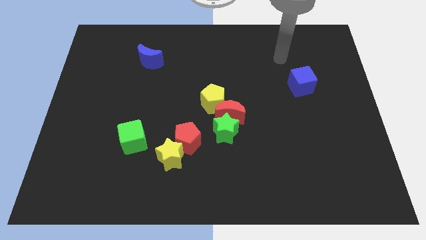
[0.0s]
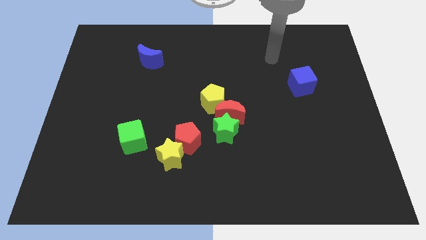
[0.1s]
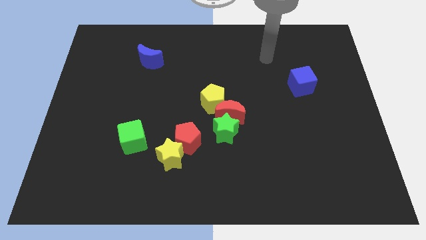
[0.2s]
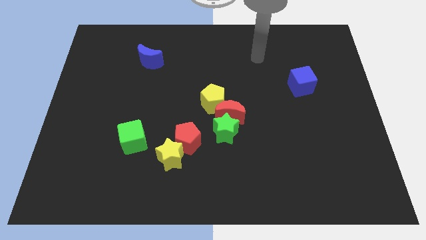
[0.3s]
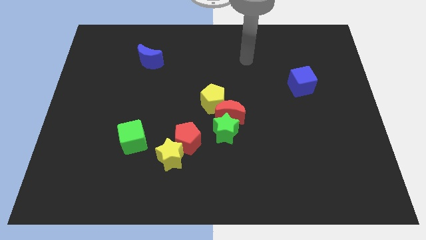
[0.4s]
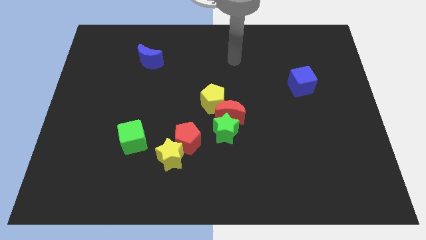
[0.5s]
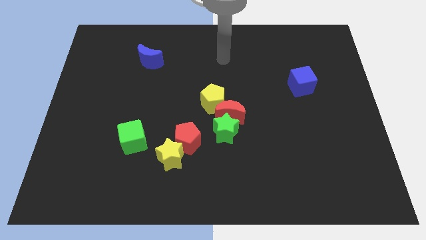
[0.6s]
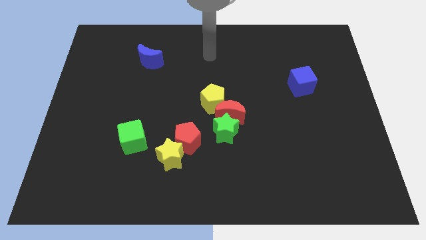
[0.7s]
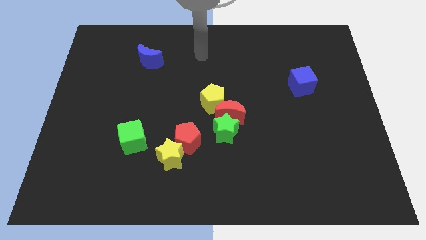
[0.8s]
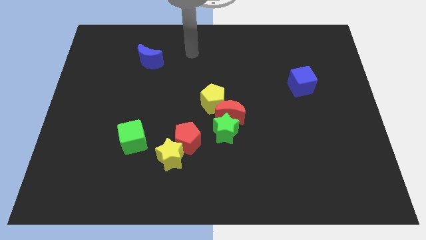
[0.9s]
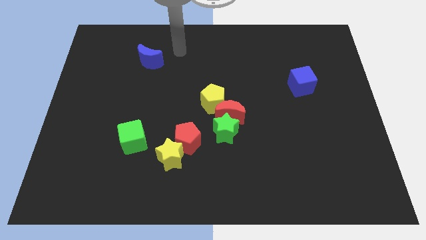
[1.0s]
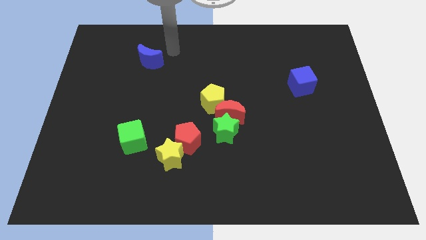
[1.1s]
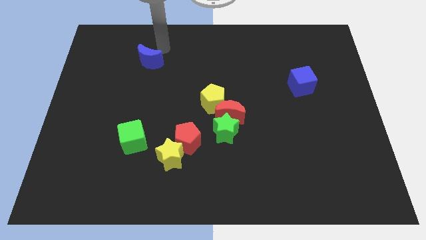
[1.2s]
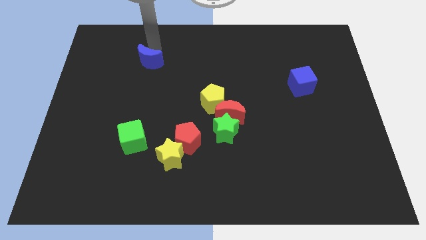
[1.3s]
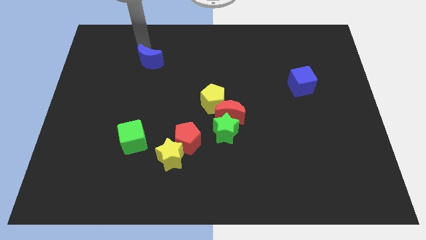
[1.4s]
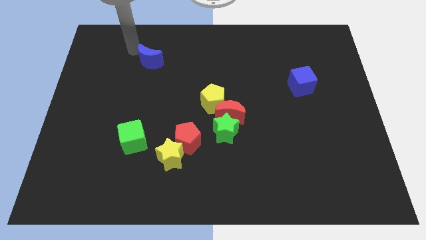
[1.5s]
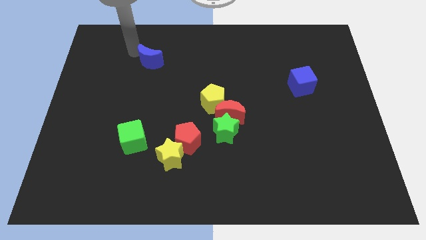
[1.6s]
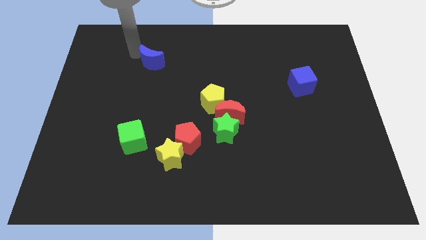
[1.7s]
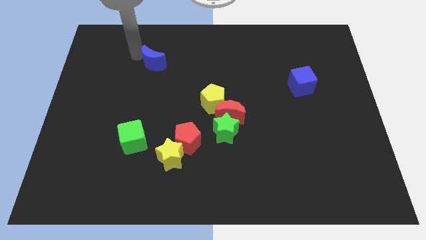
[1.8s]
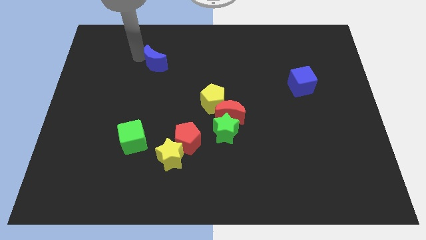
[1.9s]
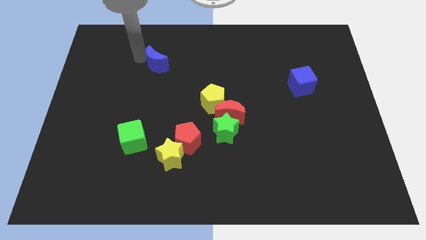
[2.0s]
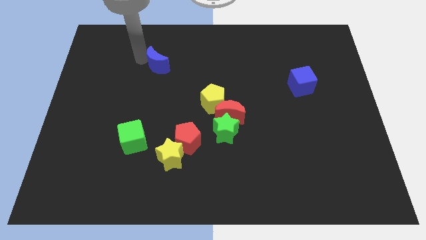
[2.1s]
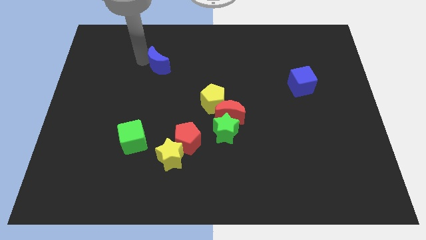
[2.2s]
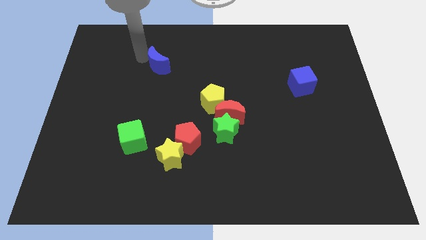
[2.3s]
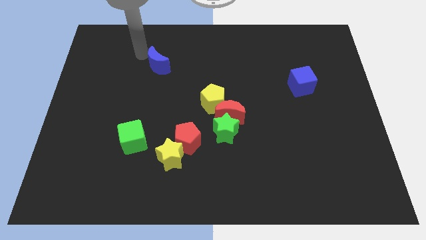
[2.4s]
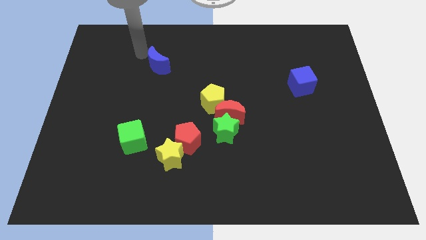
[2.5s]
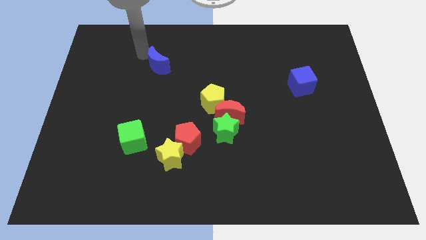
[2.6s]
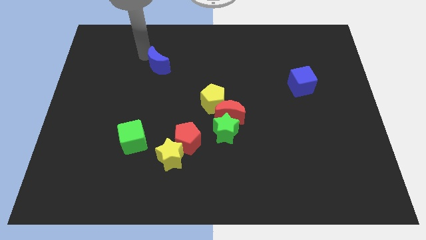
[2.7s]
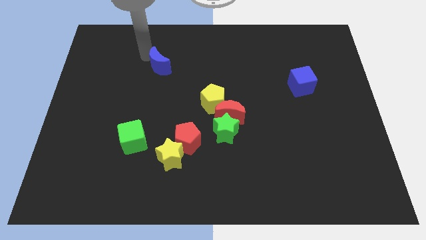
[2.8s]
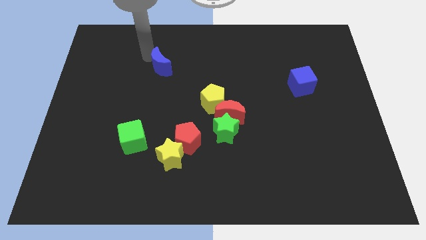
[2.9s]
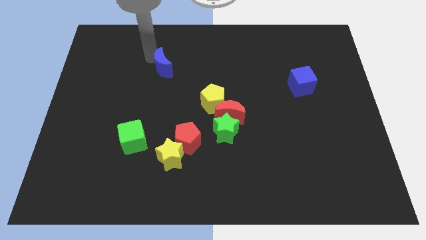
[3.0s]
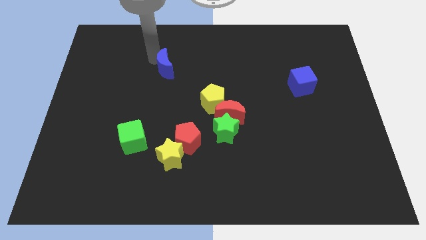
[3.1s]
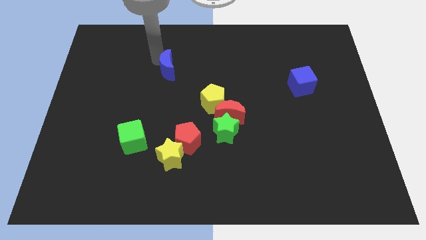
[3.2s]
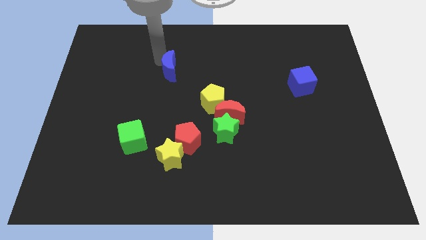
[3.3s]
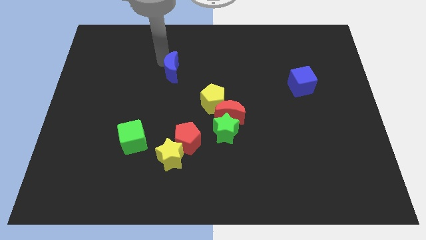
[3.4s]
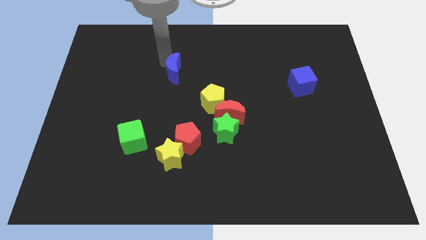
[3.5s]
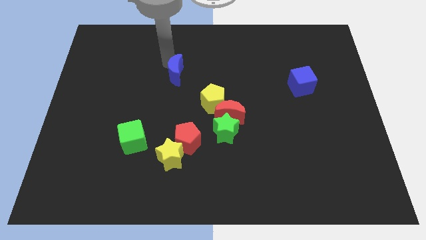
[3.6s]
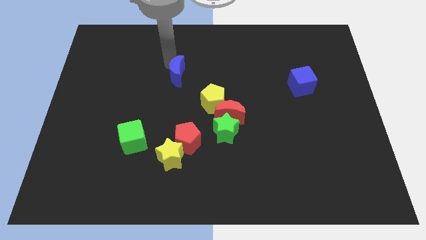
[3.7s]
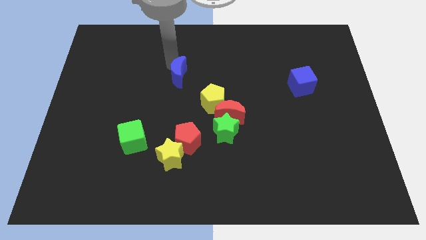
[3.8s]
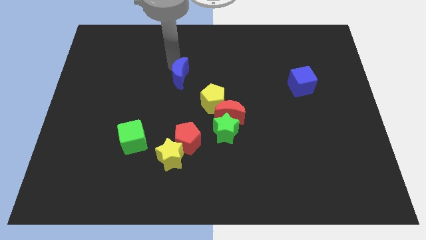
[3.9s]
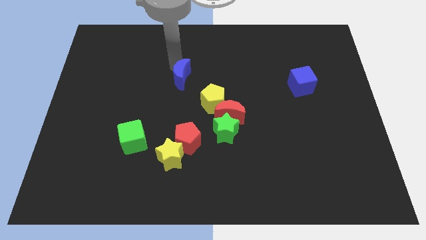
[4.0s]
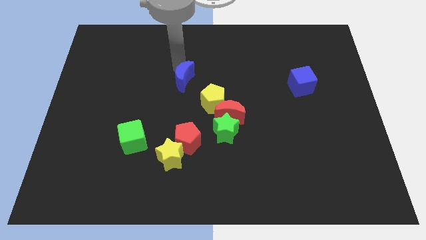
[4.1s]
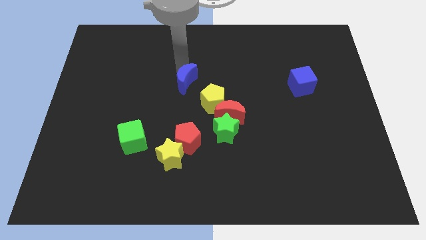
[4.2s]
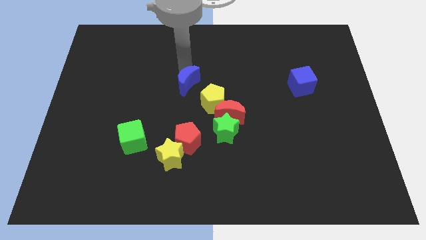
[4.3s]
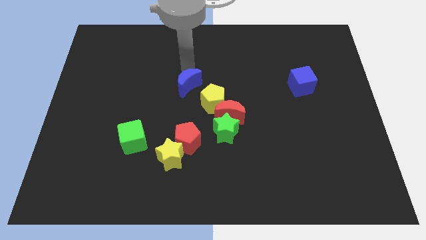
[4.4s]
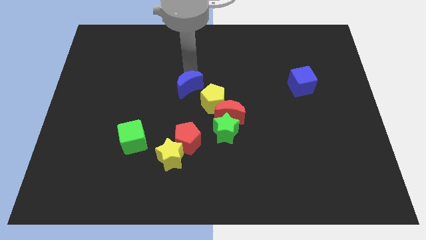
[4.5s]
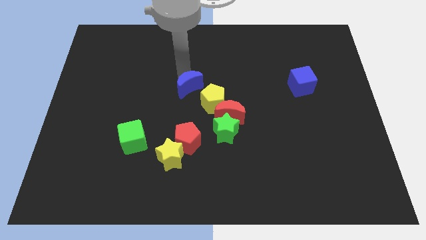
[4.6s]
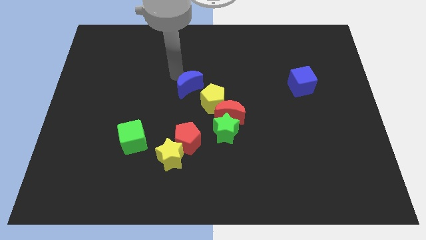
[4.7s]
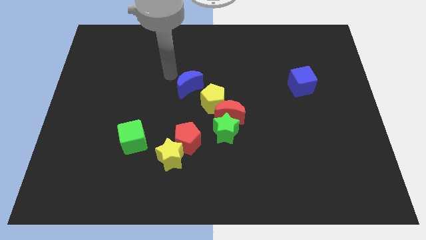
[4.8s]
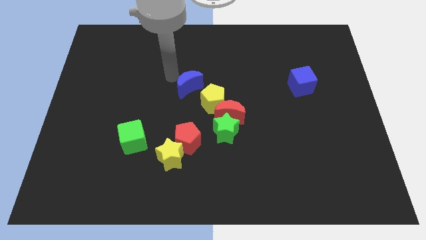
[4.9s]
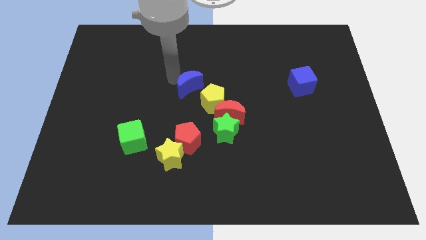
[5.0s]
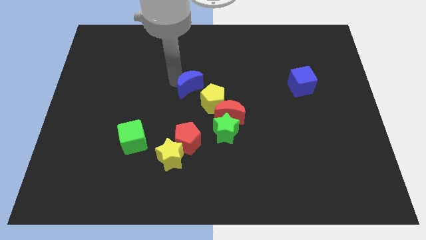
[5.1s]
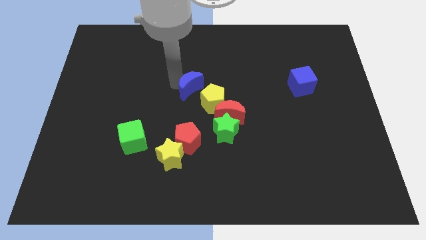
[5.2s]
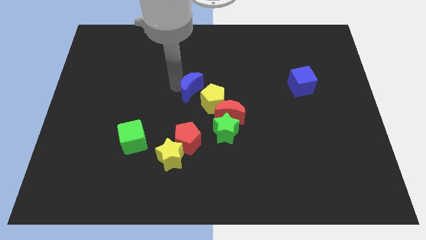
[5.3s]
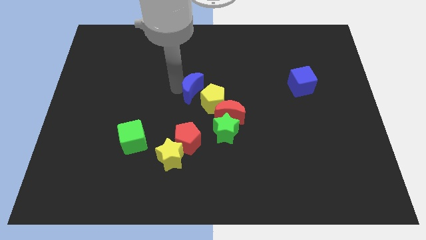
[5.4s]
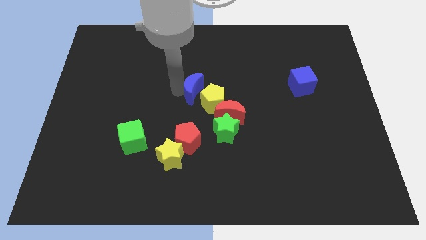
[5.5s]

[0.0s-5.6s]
move the blue moon next to the yellow pentagon

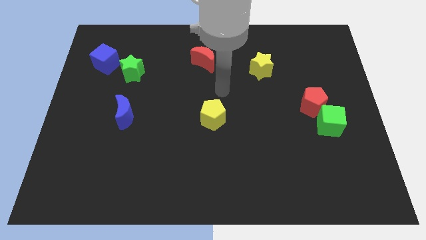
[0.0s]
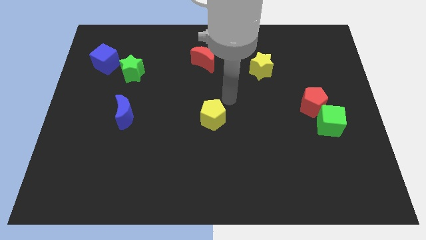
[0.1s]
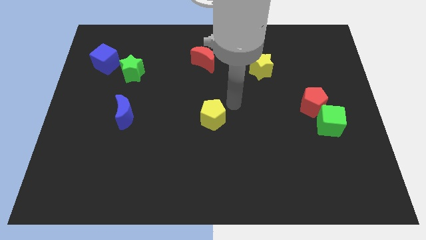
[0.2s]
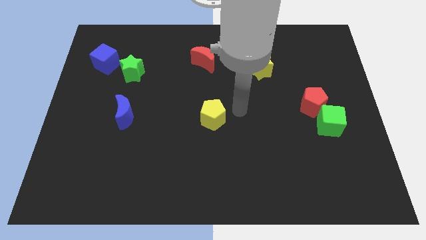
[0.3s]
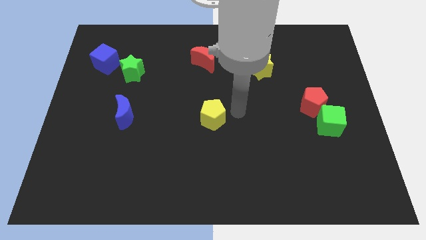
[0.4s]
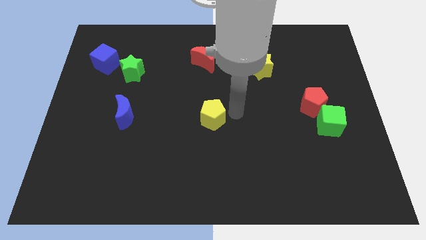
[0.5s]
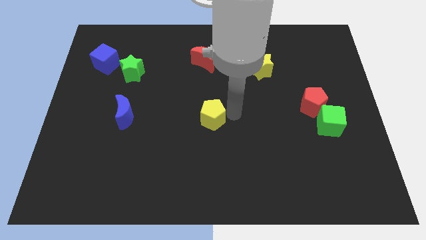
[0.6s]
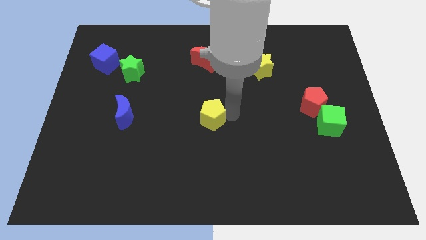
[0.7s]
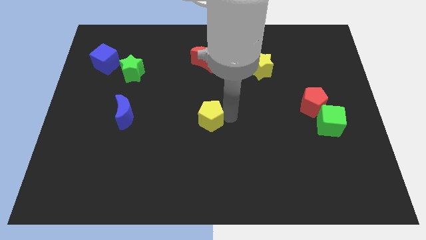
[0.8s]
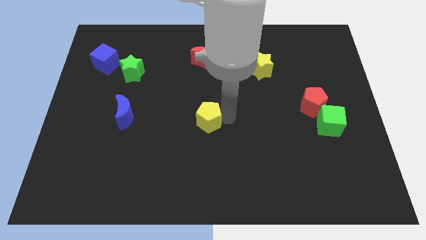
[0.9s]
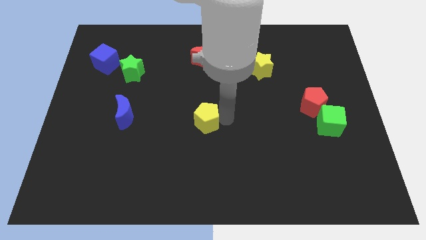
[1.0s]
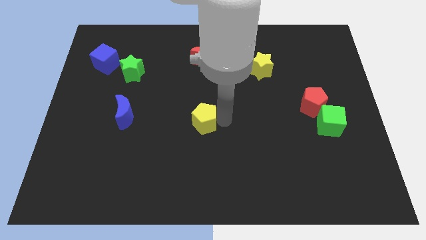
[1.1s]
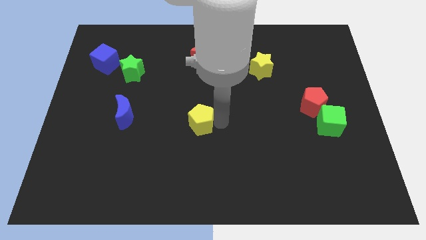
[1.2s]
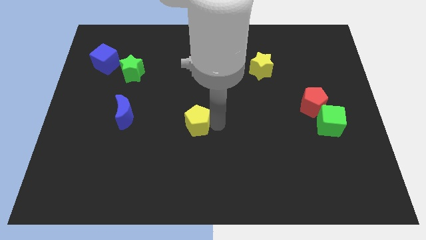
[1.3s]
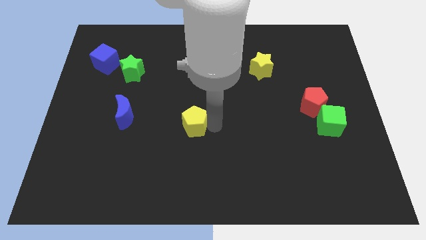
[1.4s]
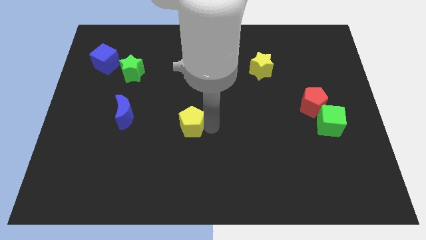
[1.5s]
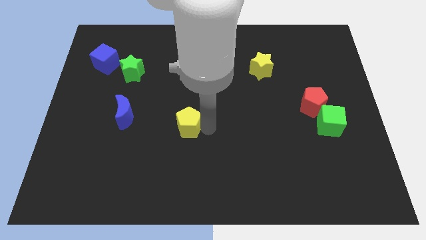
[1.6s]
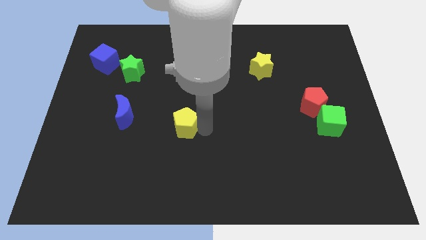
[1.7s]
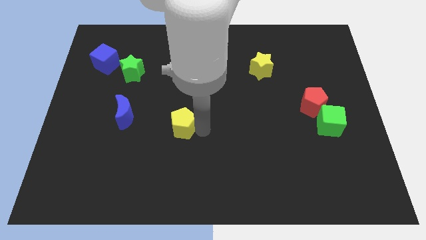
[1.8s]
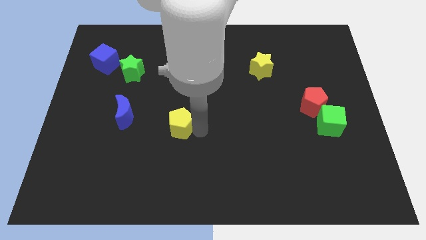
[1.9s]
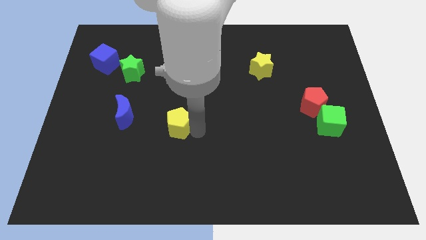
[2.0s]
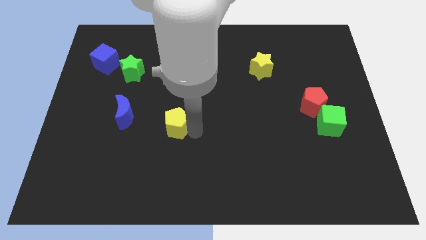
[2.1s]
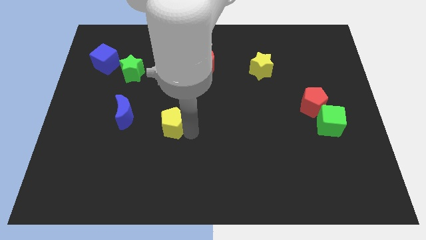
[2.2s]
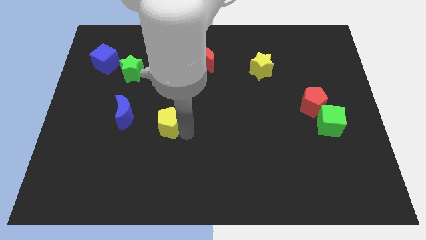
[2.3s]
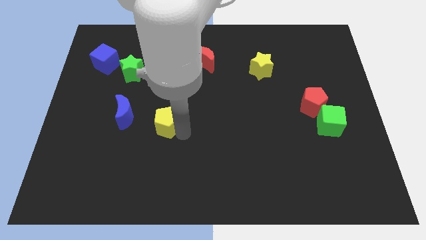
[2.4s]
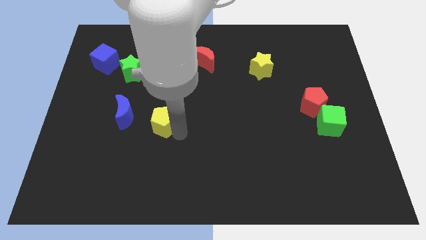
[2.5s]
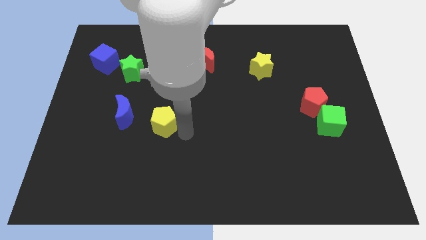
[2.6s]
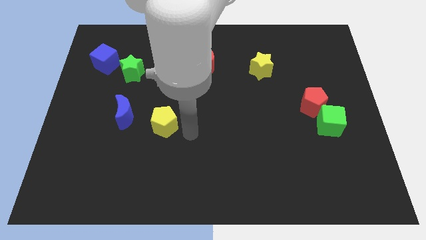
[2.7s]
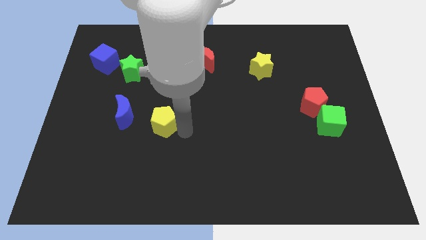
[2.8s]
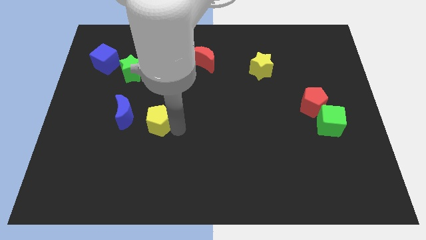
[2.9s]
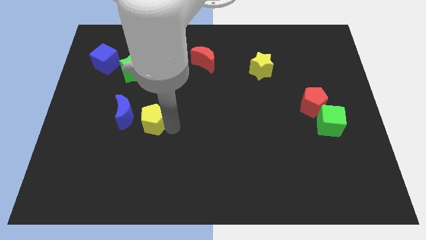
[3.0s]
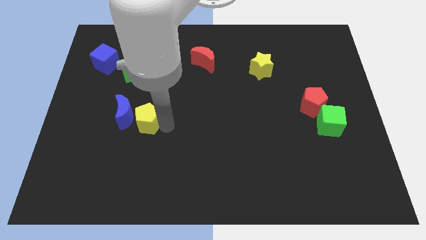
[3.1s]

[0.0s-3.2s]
slide the yellow pentagon to the blue moon
